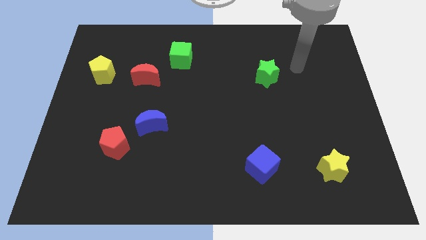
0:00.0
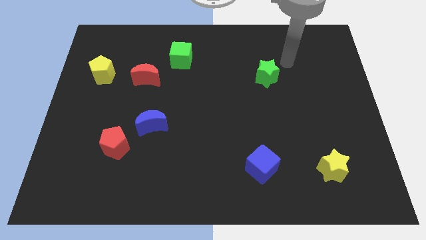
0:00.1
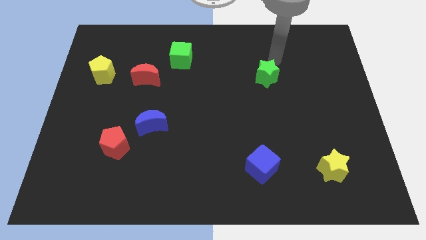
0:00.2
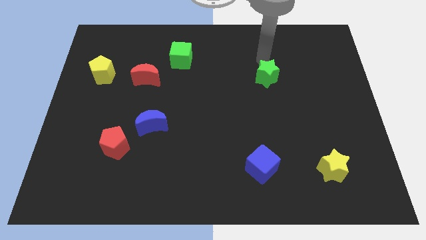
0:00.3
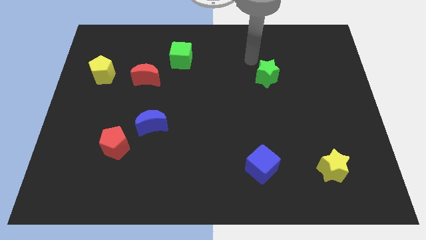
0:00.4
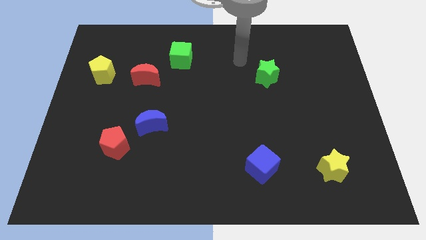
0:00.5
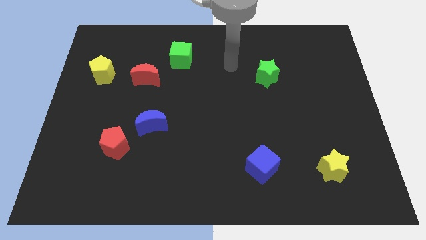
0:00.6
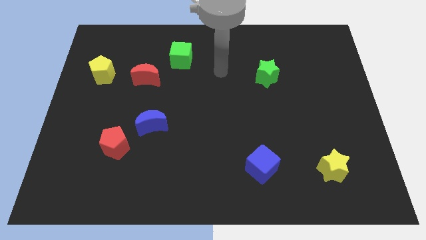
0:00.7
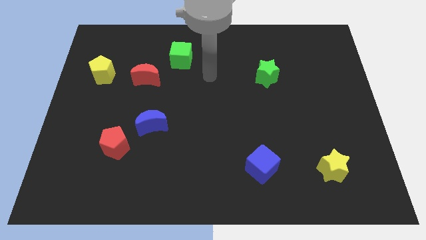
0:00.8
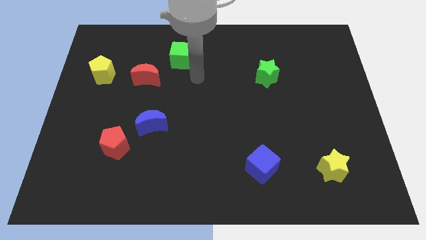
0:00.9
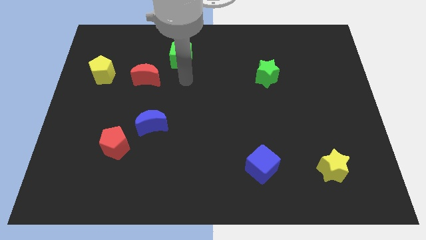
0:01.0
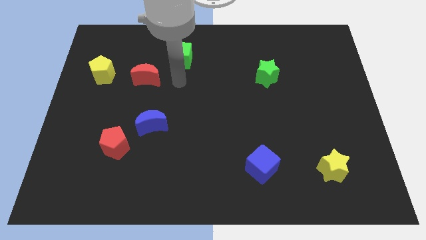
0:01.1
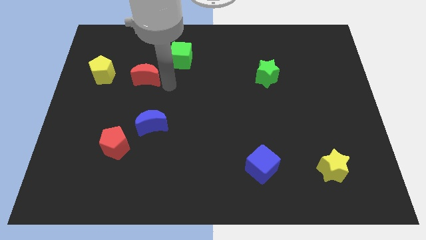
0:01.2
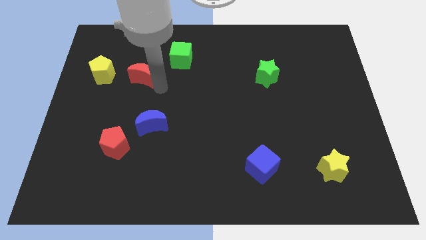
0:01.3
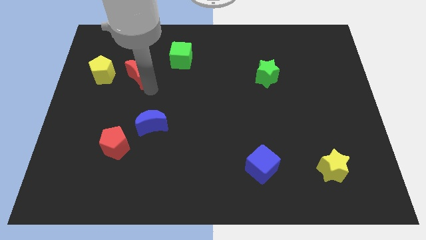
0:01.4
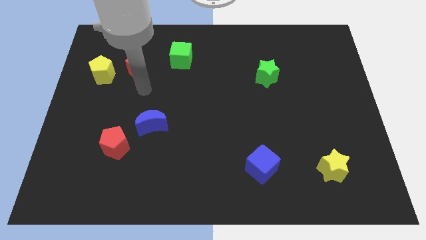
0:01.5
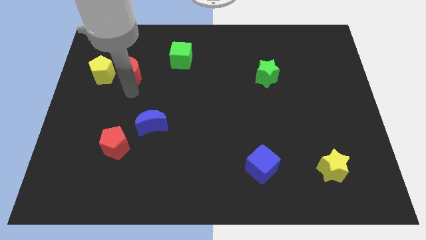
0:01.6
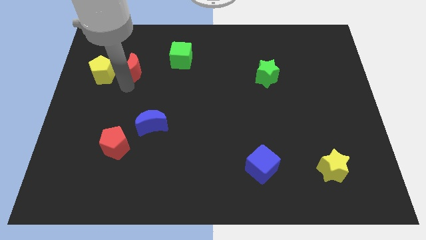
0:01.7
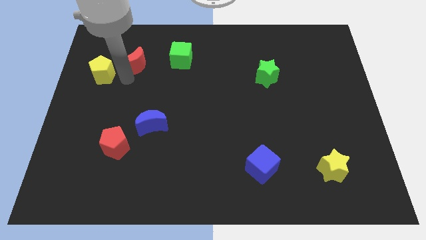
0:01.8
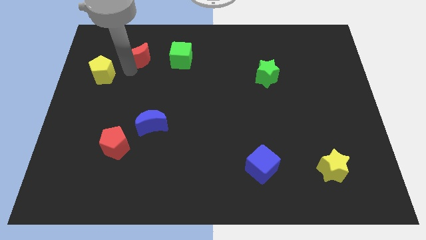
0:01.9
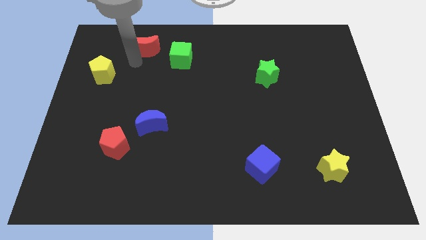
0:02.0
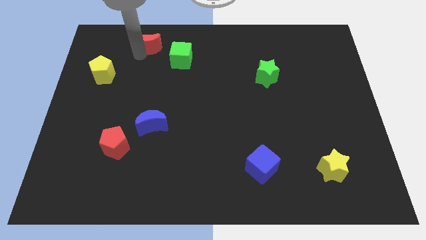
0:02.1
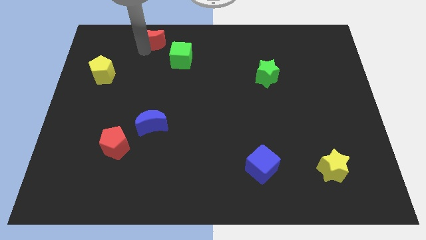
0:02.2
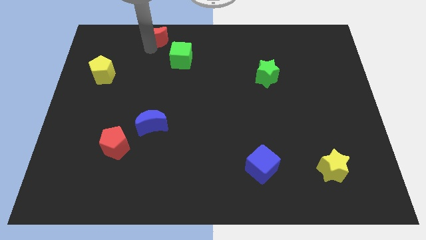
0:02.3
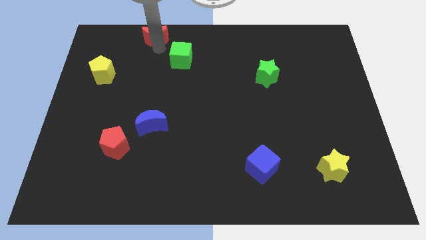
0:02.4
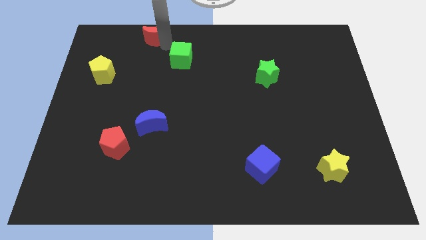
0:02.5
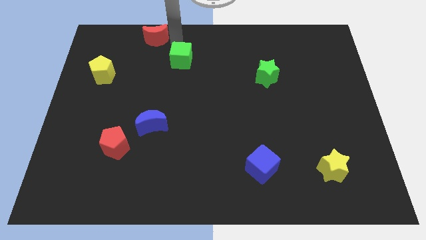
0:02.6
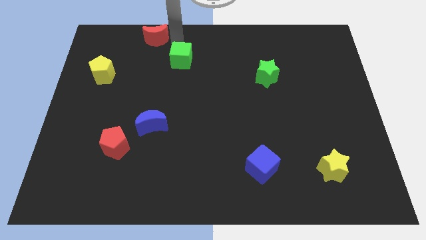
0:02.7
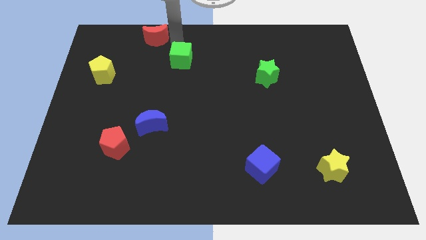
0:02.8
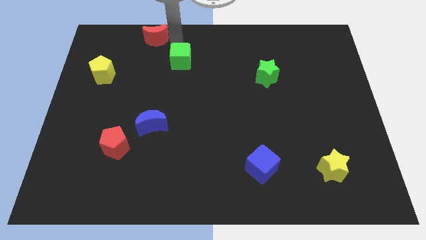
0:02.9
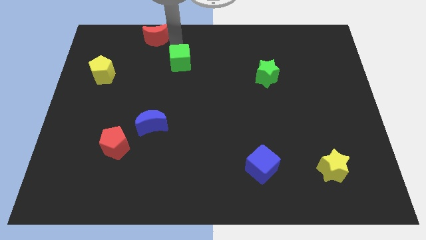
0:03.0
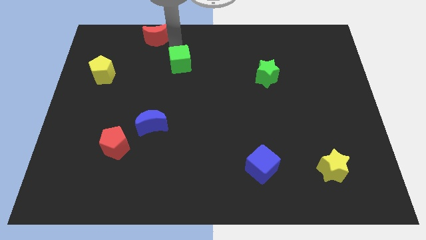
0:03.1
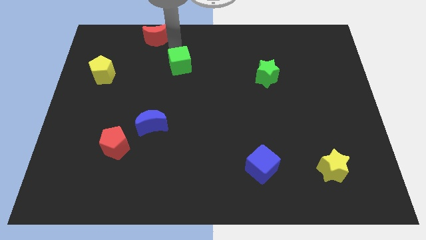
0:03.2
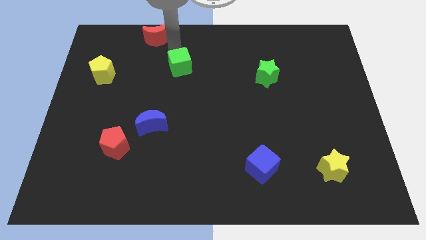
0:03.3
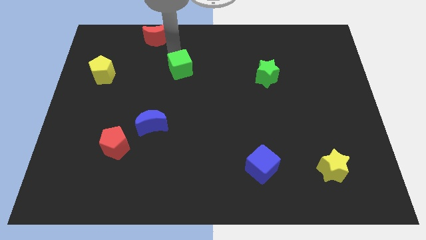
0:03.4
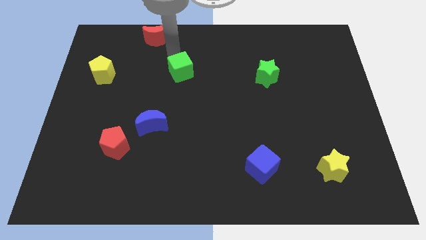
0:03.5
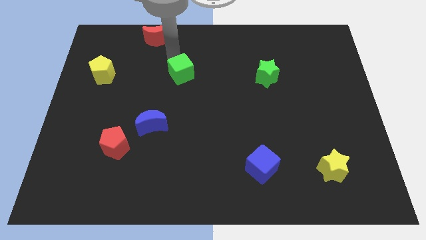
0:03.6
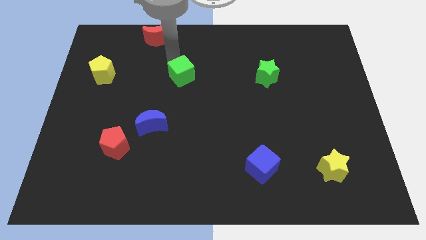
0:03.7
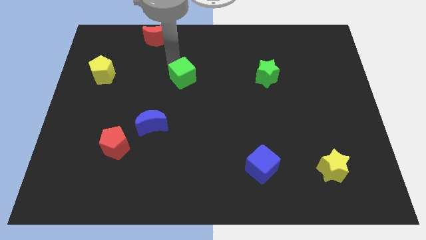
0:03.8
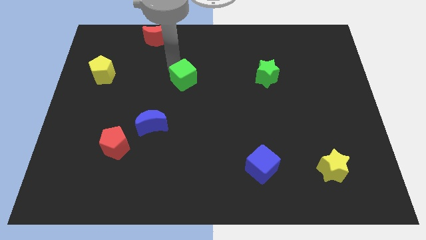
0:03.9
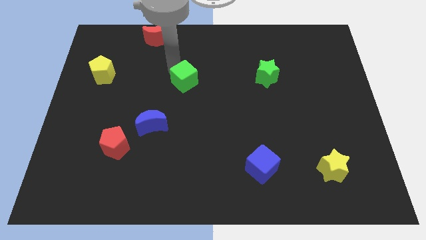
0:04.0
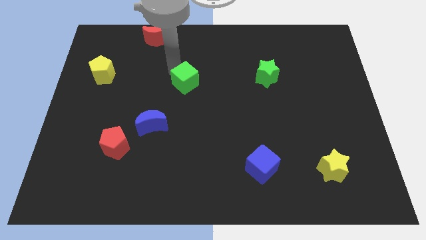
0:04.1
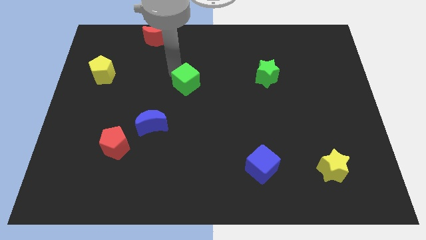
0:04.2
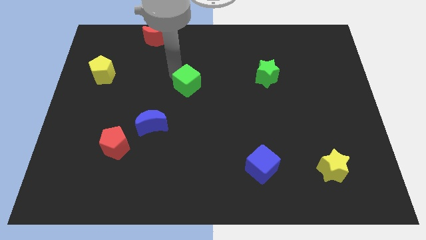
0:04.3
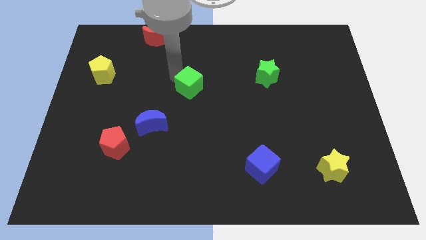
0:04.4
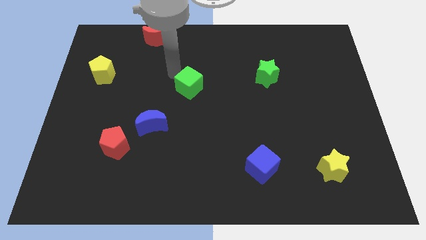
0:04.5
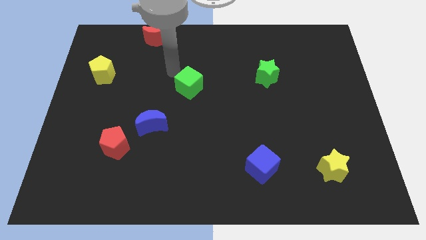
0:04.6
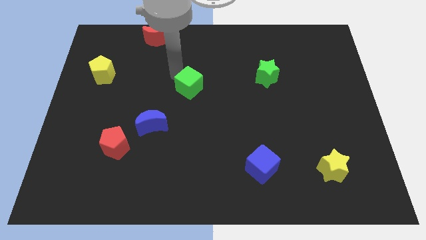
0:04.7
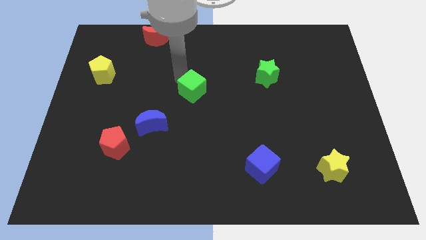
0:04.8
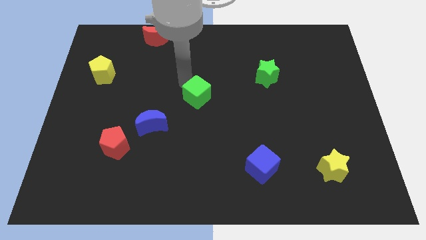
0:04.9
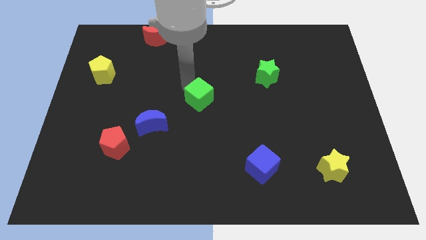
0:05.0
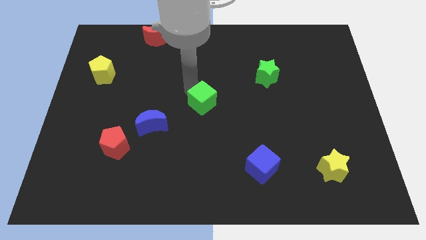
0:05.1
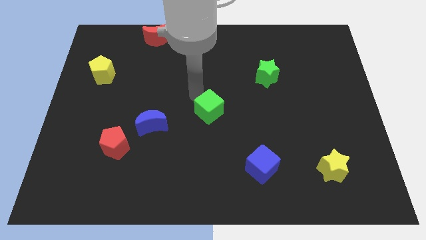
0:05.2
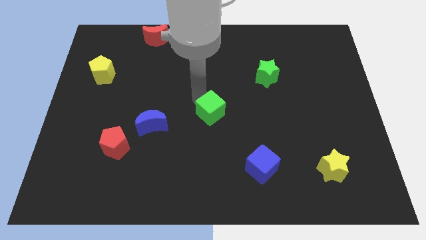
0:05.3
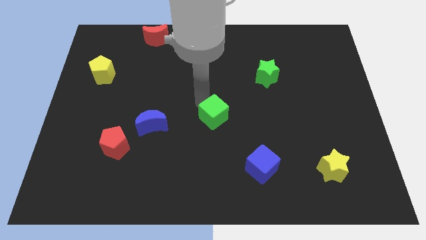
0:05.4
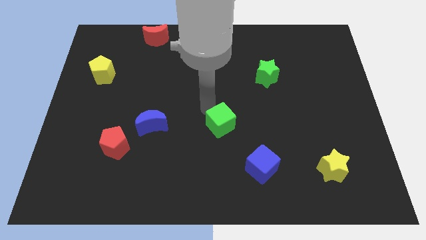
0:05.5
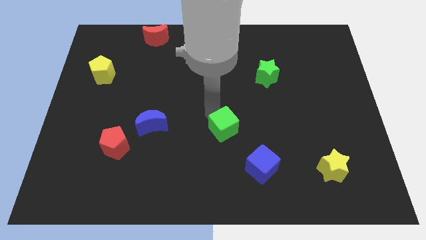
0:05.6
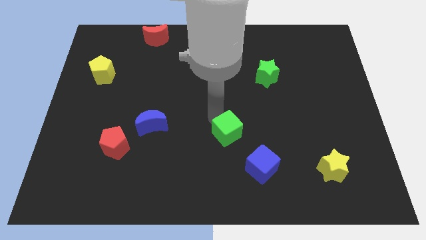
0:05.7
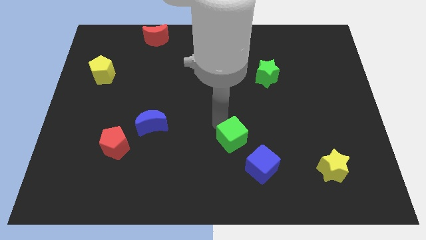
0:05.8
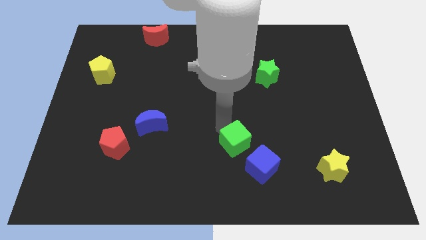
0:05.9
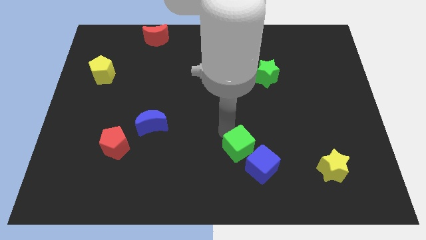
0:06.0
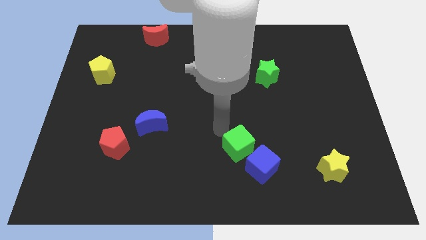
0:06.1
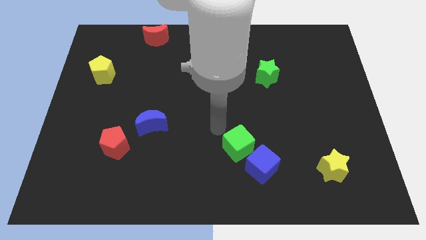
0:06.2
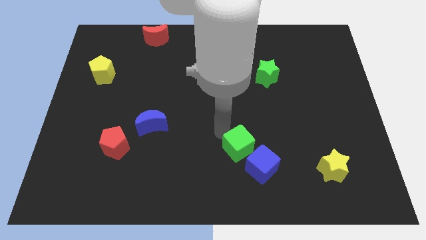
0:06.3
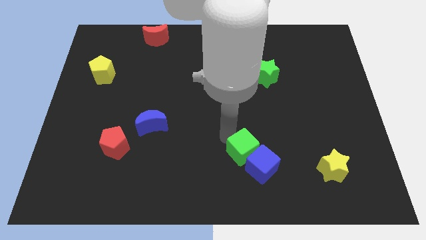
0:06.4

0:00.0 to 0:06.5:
put the green cube close to the blue cube

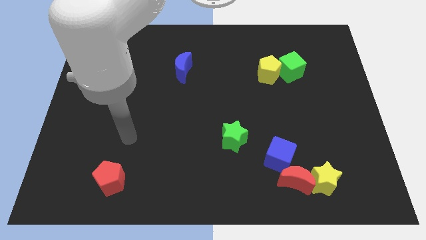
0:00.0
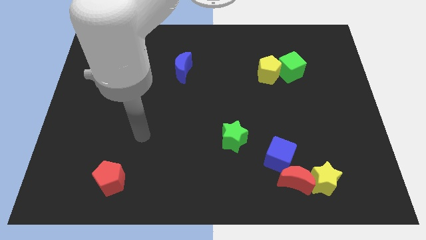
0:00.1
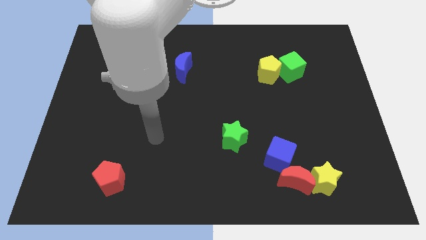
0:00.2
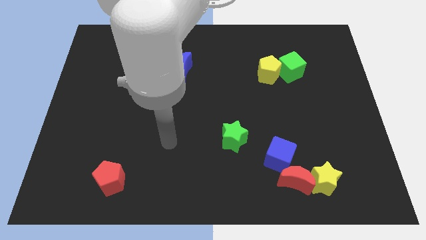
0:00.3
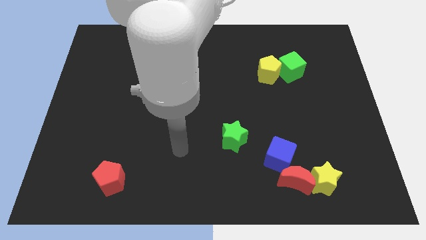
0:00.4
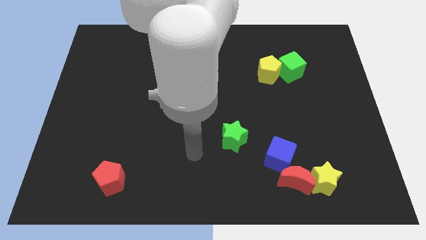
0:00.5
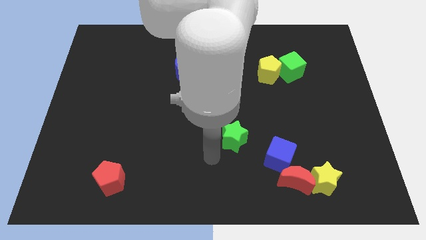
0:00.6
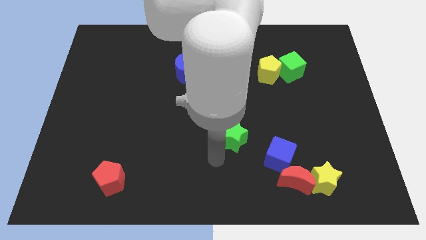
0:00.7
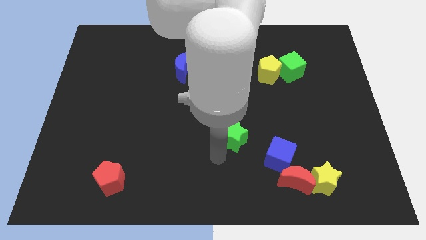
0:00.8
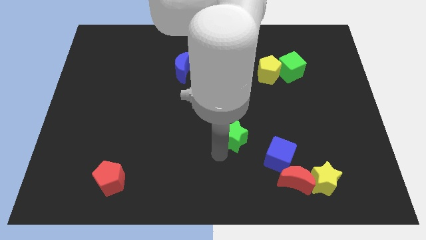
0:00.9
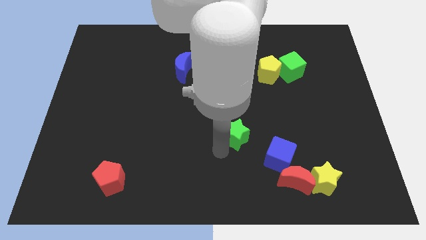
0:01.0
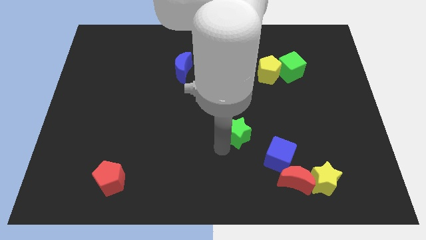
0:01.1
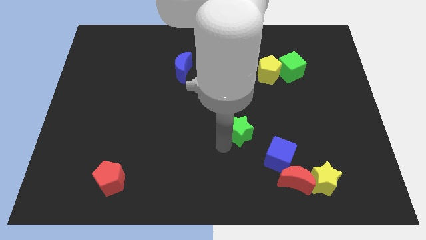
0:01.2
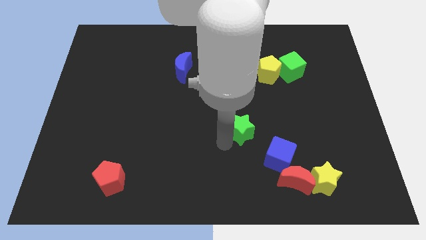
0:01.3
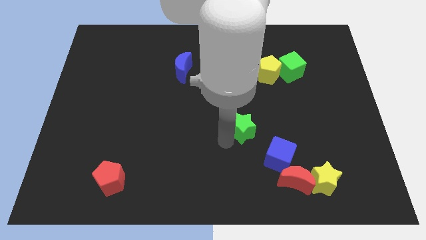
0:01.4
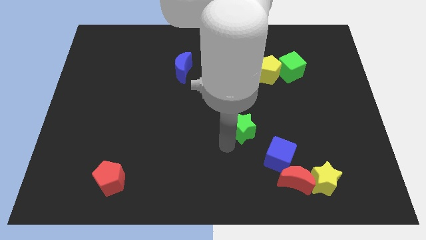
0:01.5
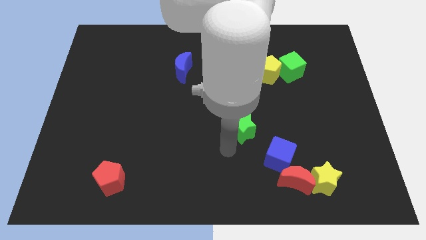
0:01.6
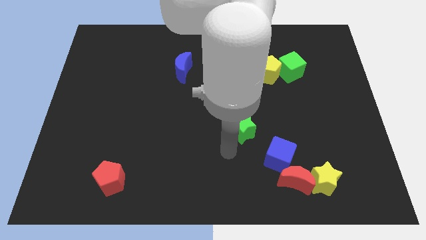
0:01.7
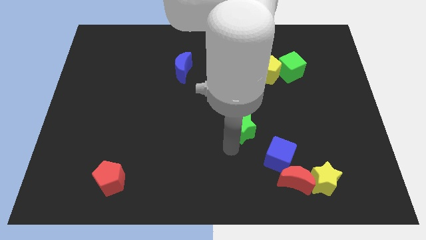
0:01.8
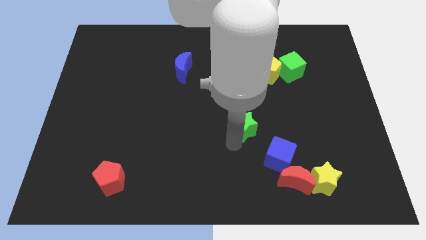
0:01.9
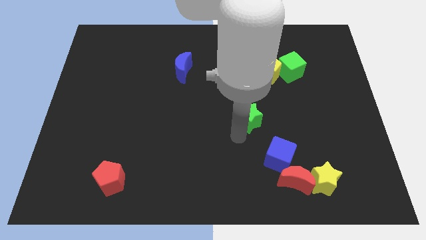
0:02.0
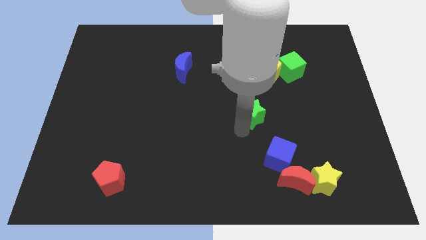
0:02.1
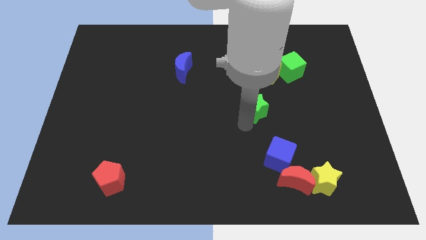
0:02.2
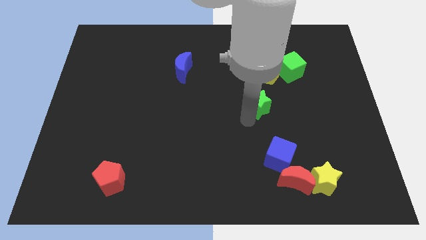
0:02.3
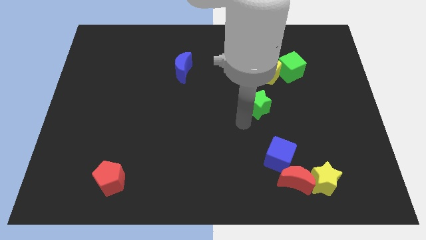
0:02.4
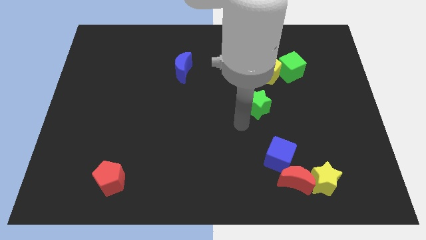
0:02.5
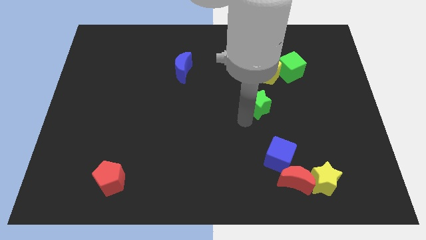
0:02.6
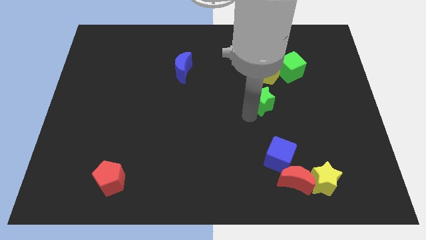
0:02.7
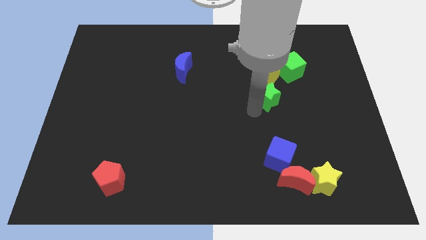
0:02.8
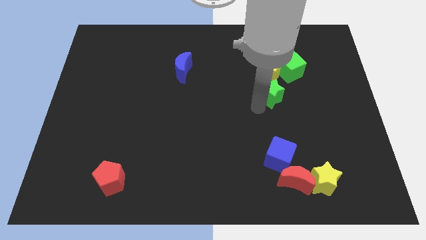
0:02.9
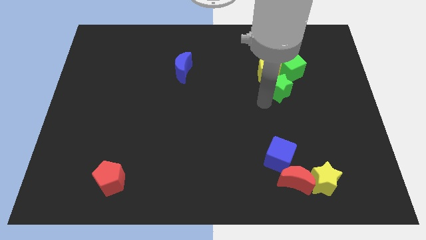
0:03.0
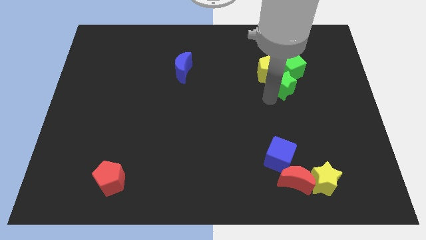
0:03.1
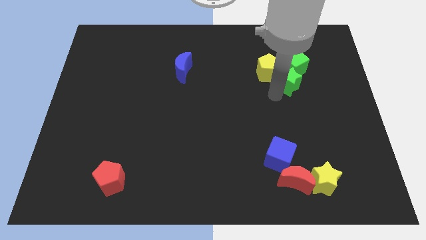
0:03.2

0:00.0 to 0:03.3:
put the green star towards the green cube
